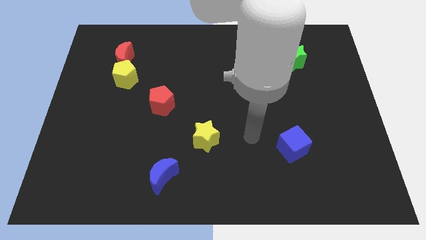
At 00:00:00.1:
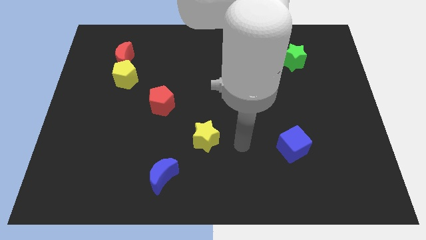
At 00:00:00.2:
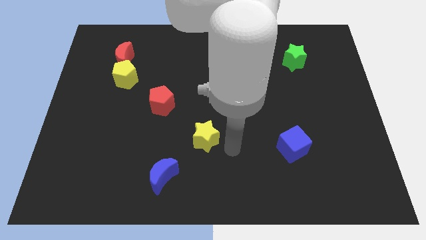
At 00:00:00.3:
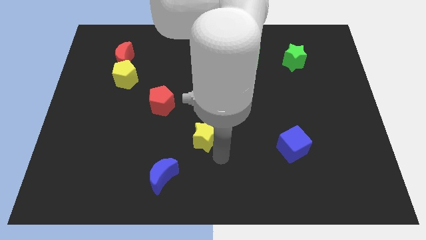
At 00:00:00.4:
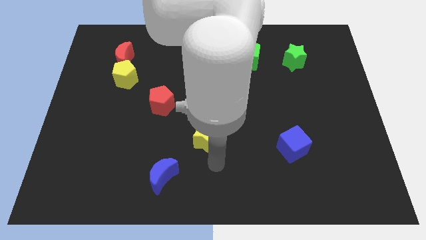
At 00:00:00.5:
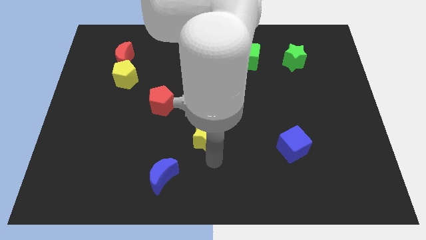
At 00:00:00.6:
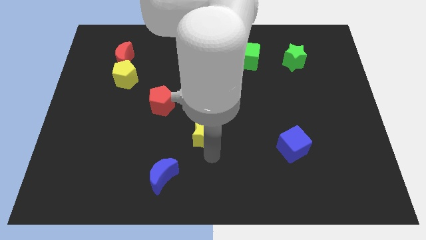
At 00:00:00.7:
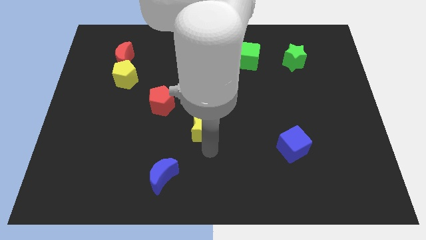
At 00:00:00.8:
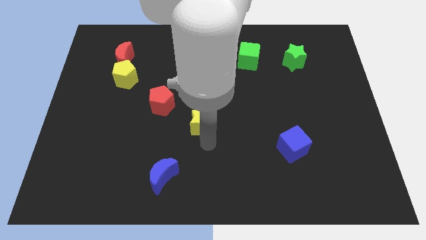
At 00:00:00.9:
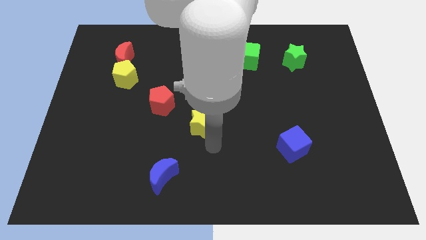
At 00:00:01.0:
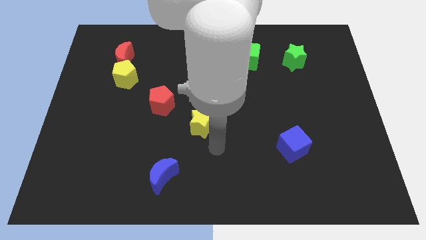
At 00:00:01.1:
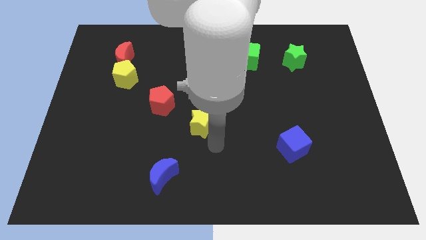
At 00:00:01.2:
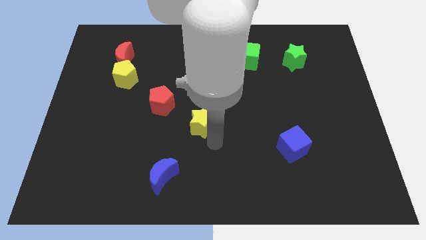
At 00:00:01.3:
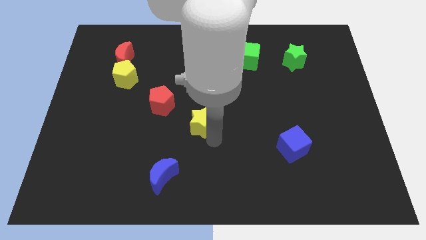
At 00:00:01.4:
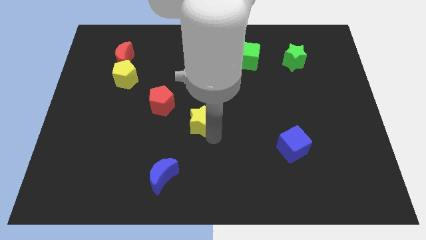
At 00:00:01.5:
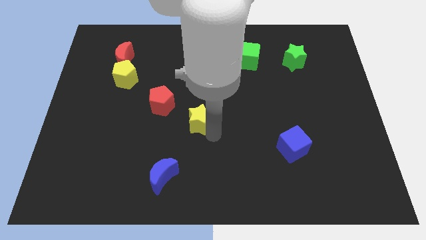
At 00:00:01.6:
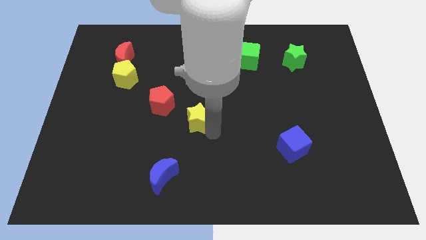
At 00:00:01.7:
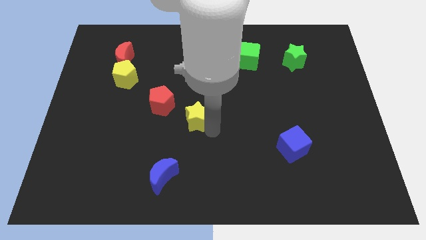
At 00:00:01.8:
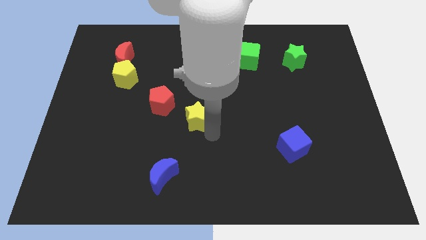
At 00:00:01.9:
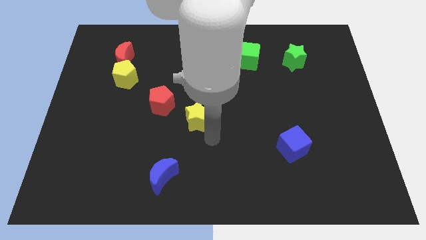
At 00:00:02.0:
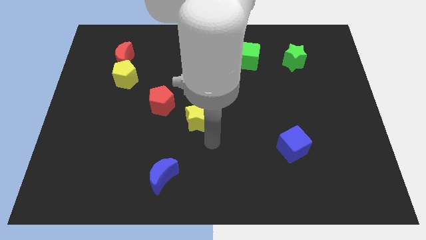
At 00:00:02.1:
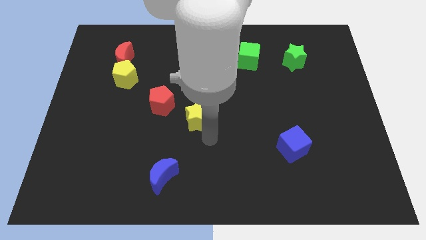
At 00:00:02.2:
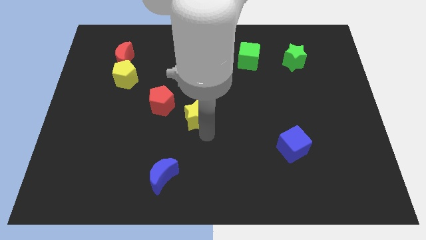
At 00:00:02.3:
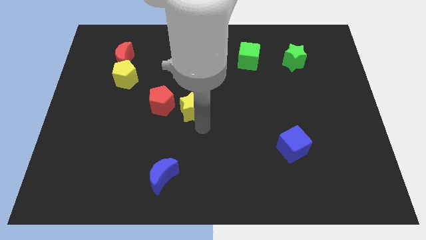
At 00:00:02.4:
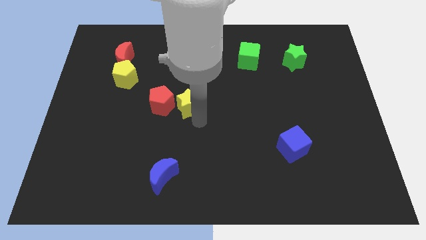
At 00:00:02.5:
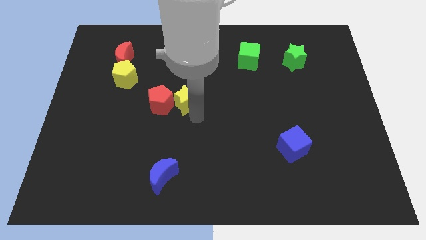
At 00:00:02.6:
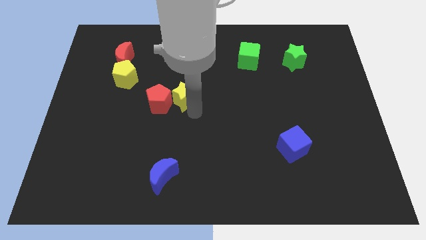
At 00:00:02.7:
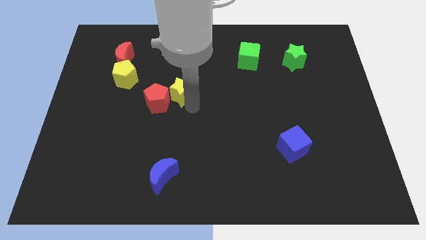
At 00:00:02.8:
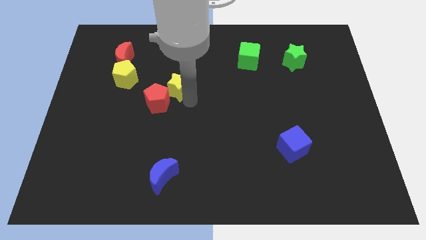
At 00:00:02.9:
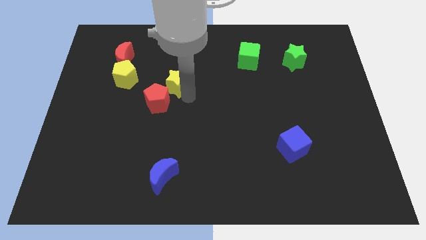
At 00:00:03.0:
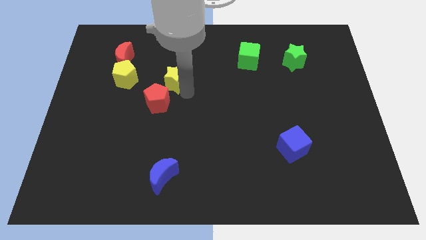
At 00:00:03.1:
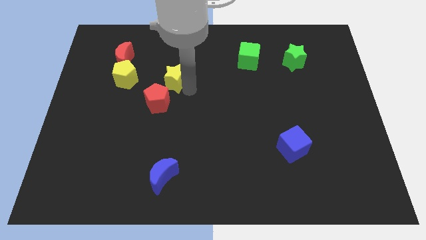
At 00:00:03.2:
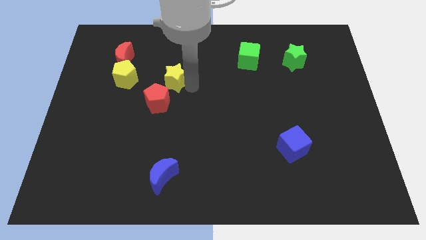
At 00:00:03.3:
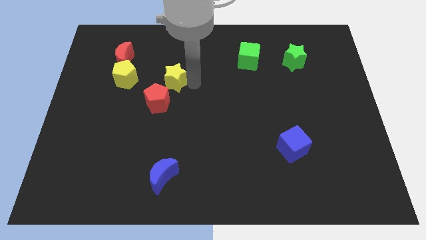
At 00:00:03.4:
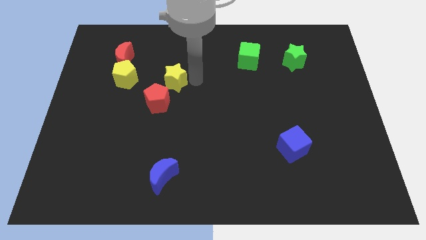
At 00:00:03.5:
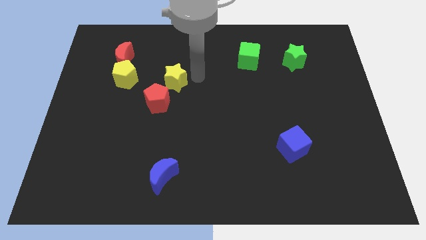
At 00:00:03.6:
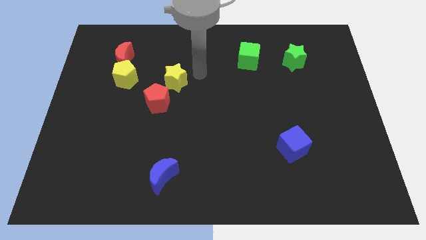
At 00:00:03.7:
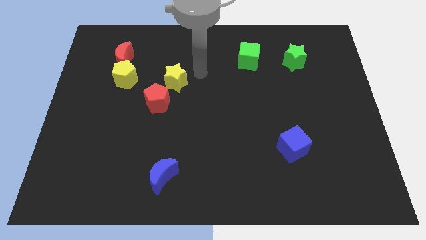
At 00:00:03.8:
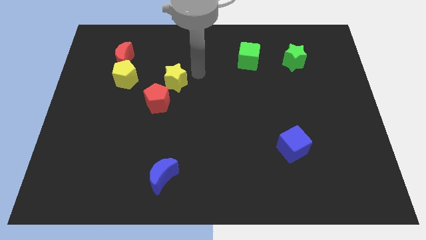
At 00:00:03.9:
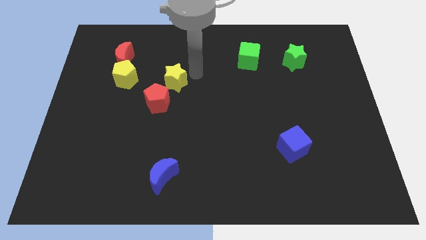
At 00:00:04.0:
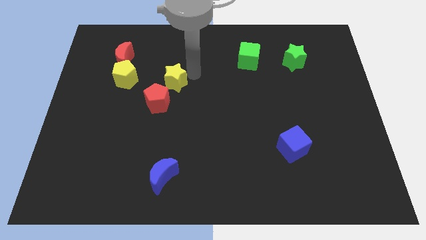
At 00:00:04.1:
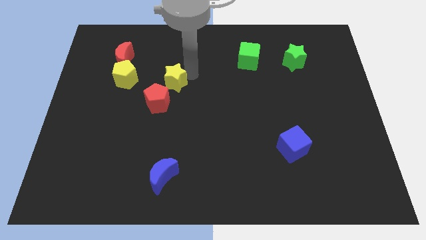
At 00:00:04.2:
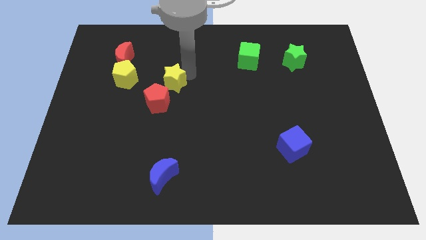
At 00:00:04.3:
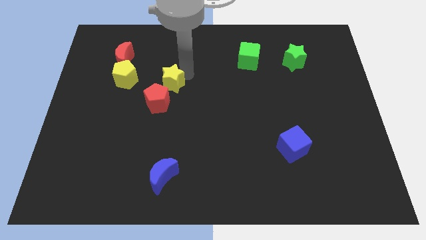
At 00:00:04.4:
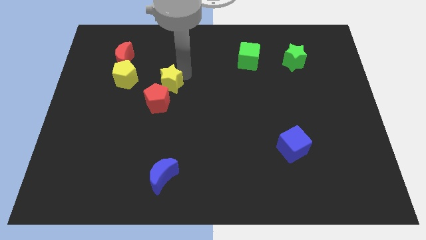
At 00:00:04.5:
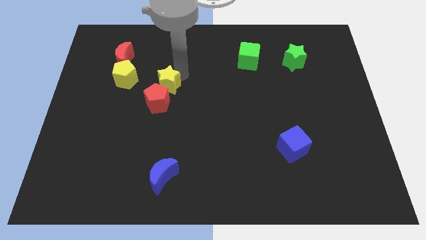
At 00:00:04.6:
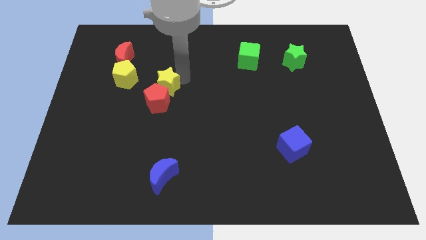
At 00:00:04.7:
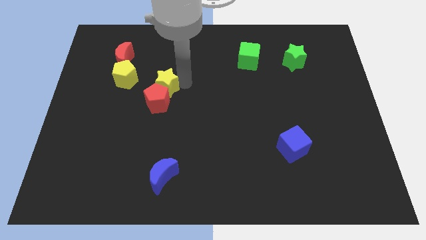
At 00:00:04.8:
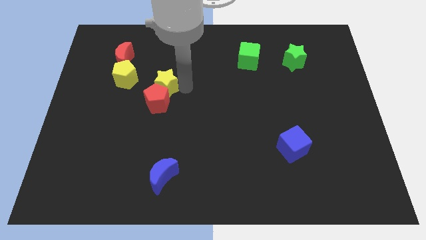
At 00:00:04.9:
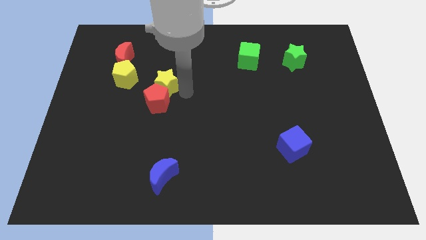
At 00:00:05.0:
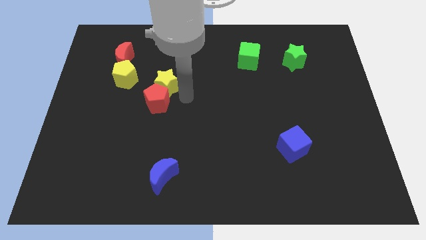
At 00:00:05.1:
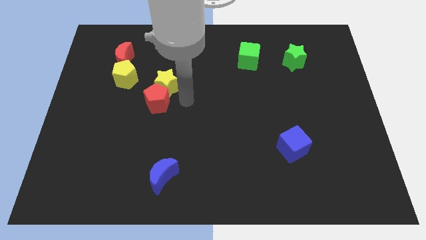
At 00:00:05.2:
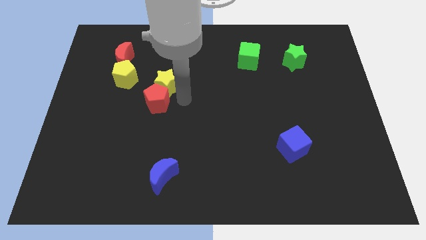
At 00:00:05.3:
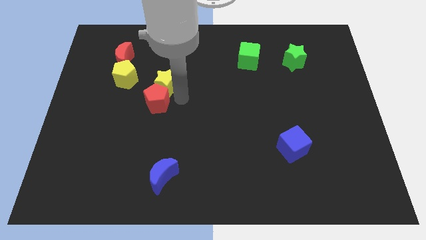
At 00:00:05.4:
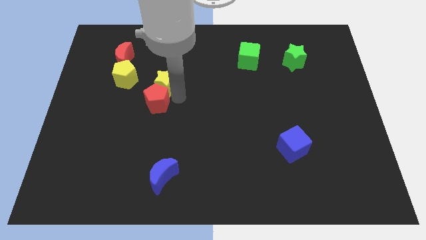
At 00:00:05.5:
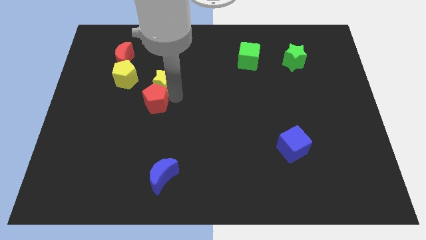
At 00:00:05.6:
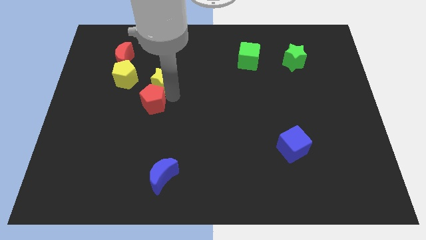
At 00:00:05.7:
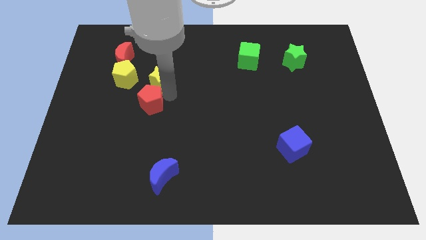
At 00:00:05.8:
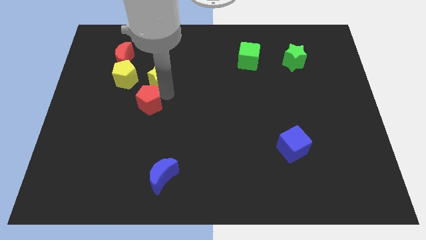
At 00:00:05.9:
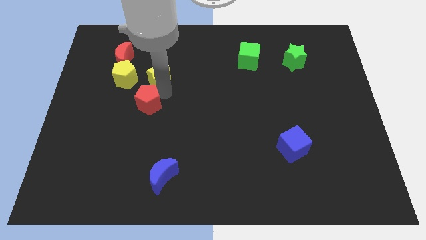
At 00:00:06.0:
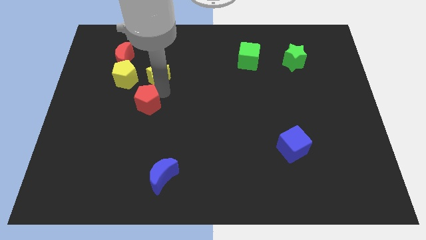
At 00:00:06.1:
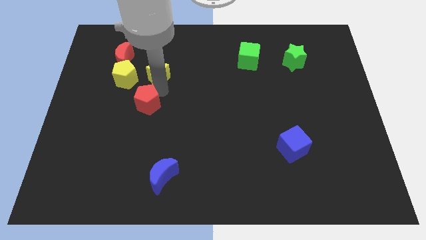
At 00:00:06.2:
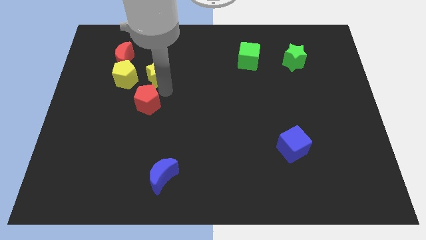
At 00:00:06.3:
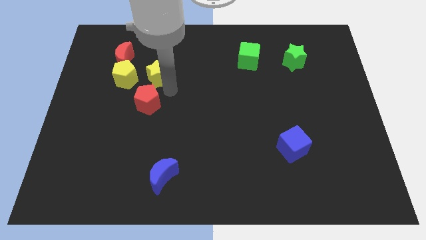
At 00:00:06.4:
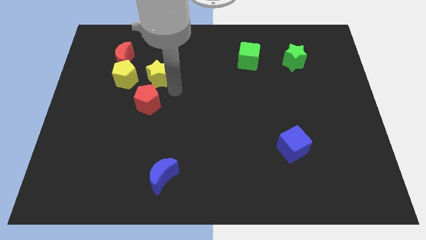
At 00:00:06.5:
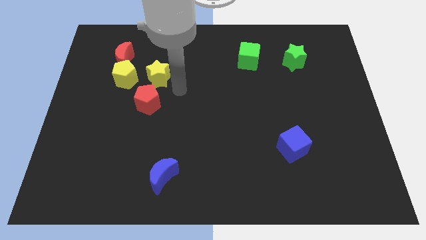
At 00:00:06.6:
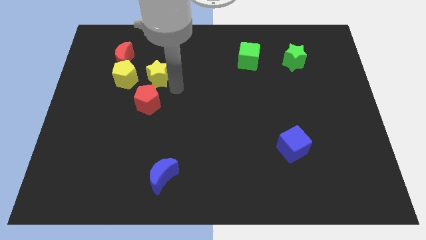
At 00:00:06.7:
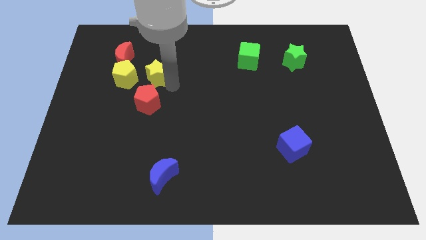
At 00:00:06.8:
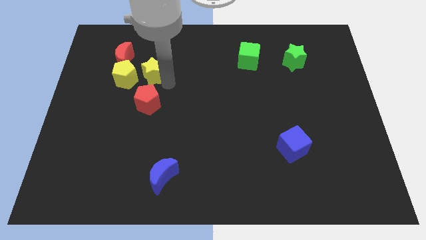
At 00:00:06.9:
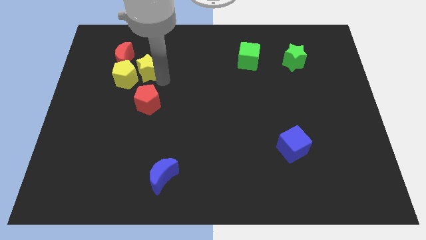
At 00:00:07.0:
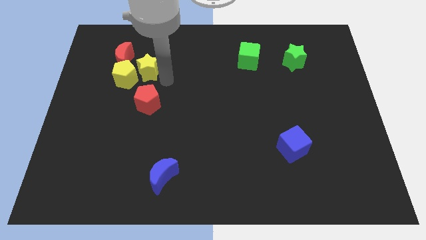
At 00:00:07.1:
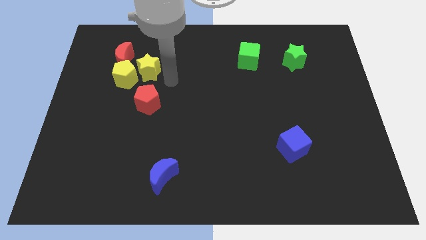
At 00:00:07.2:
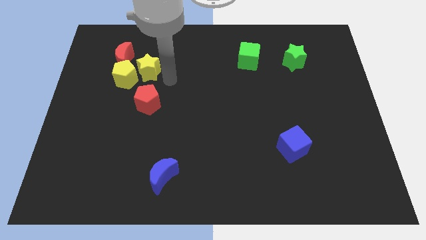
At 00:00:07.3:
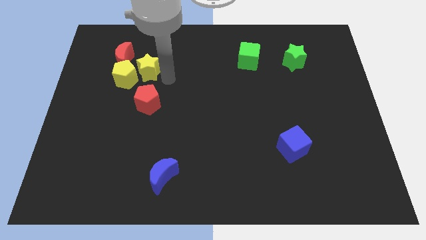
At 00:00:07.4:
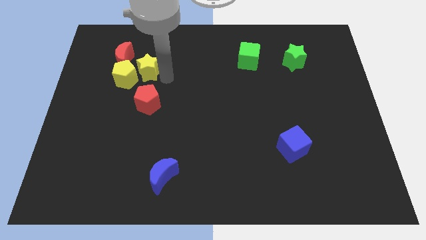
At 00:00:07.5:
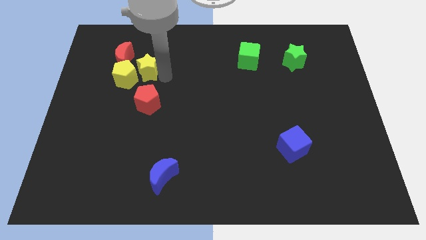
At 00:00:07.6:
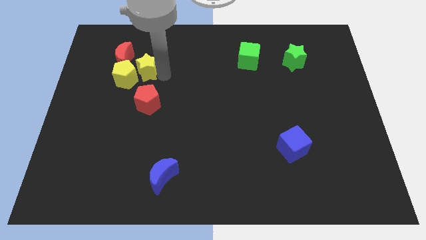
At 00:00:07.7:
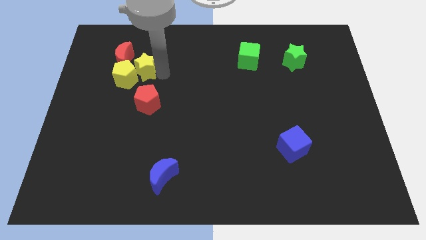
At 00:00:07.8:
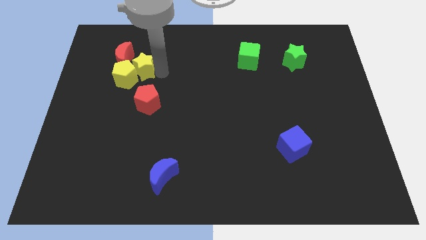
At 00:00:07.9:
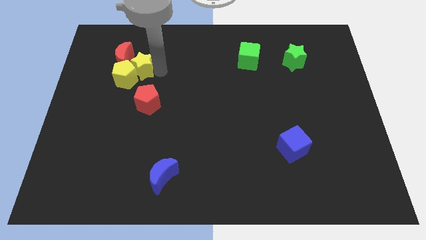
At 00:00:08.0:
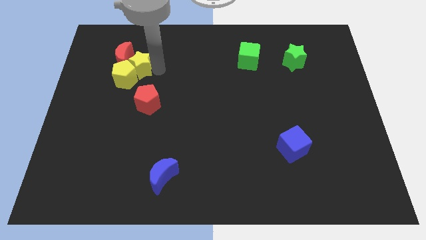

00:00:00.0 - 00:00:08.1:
push the yellow star towards the red moon
